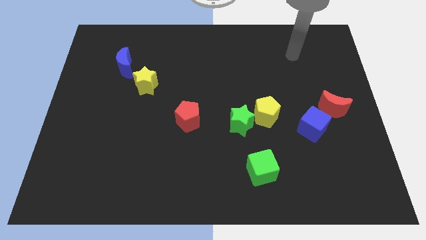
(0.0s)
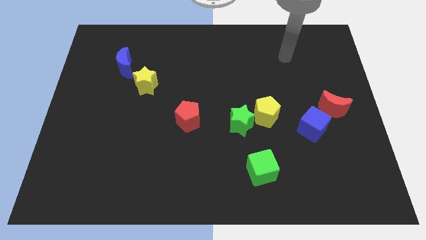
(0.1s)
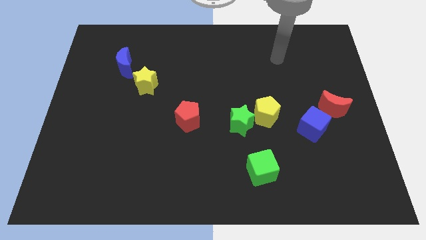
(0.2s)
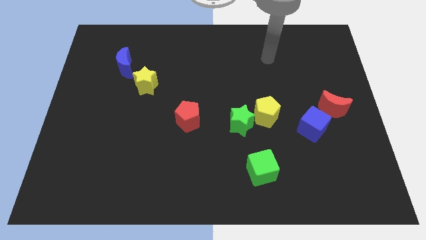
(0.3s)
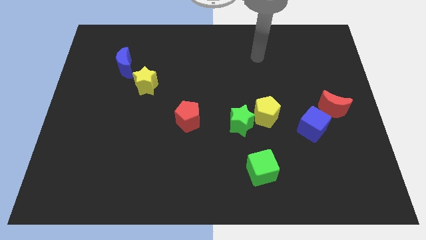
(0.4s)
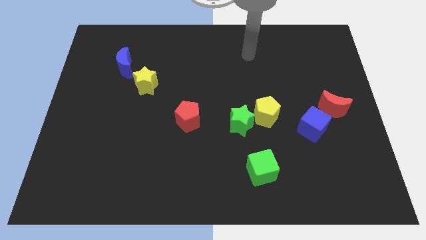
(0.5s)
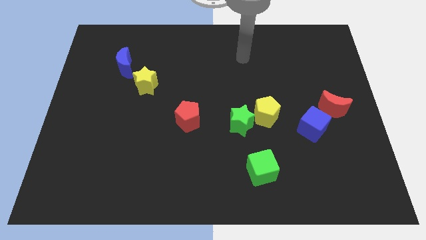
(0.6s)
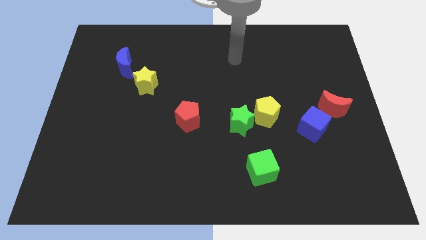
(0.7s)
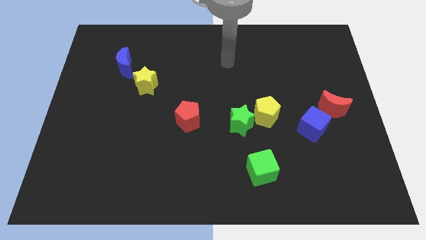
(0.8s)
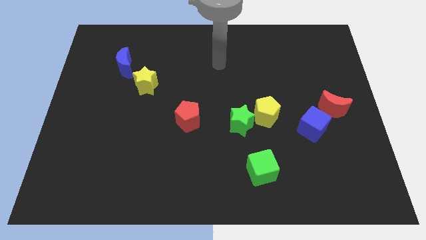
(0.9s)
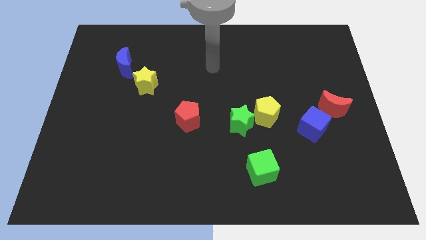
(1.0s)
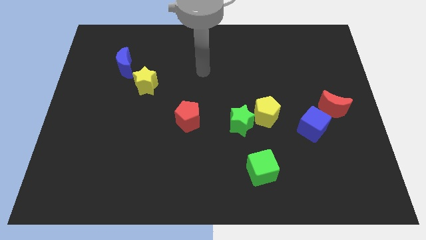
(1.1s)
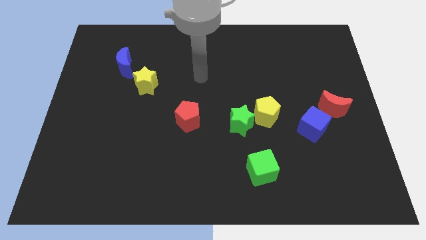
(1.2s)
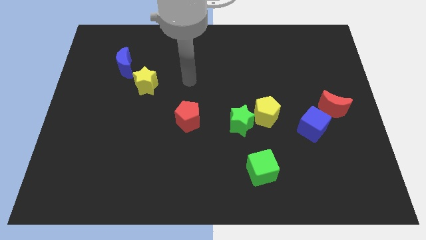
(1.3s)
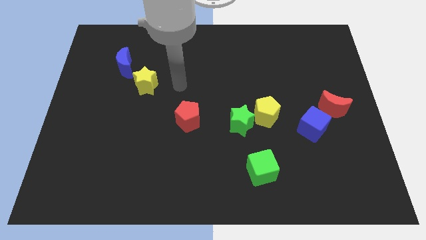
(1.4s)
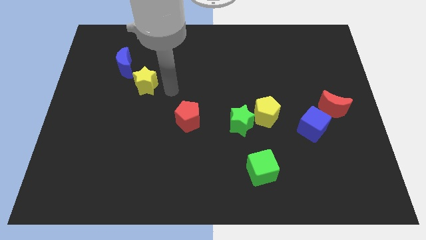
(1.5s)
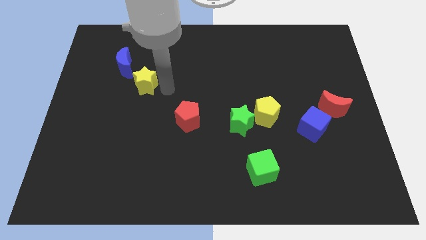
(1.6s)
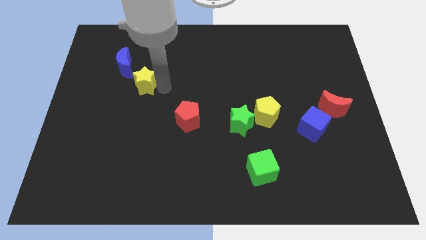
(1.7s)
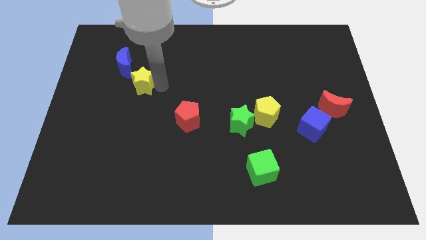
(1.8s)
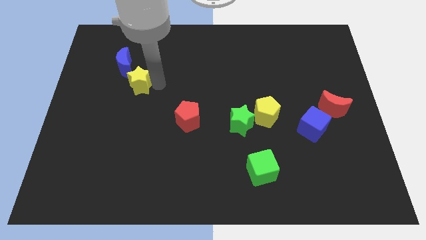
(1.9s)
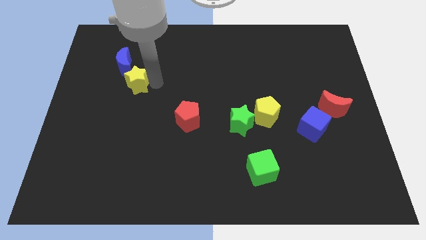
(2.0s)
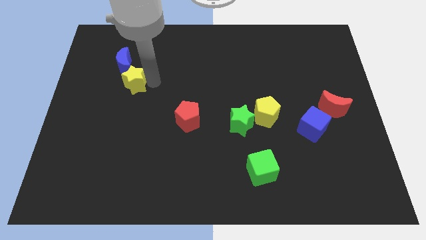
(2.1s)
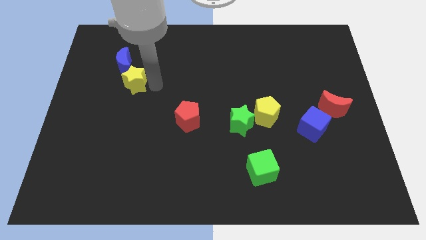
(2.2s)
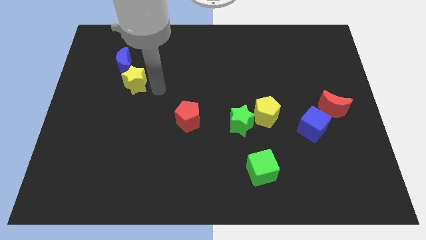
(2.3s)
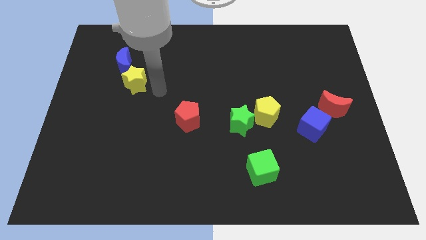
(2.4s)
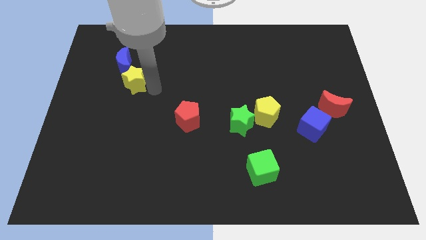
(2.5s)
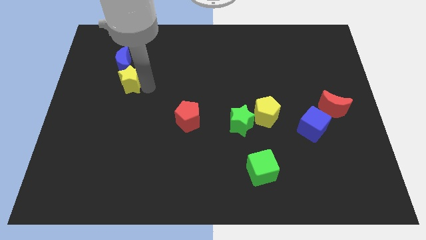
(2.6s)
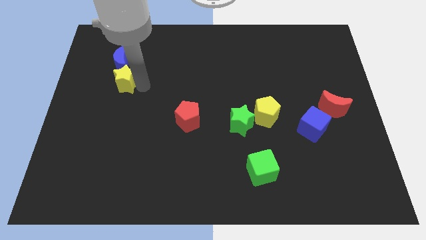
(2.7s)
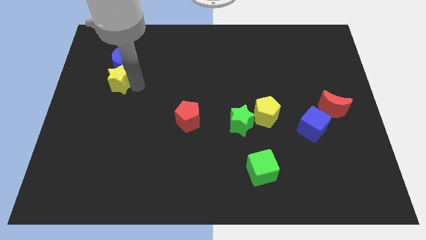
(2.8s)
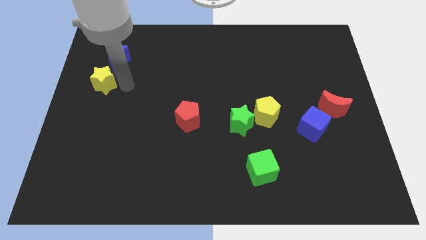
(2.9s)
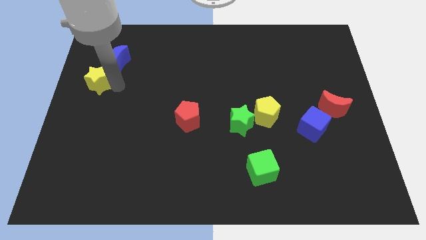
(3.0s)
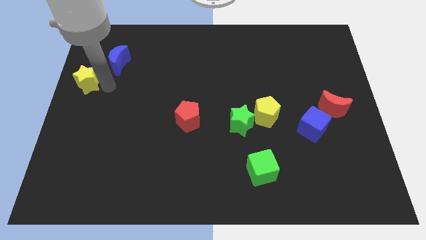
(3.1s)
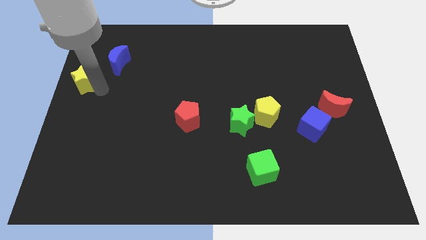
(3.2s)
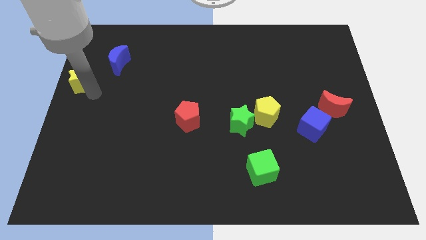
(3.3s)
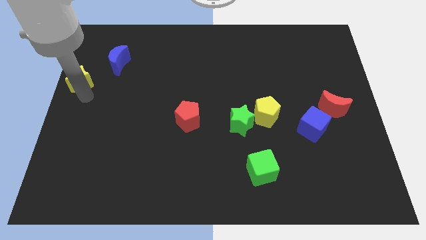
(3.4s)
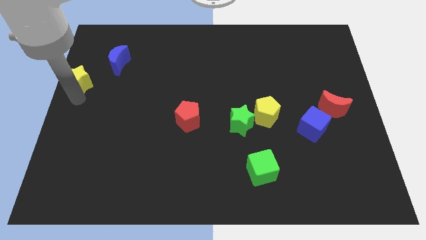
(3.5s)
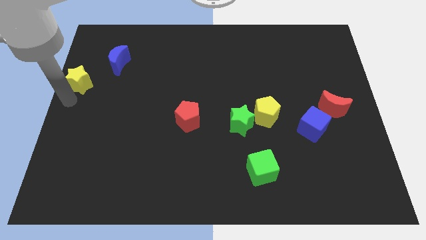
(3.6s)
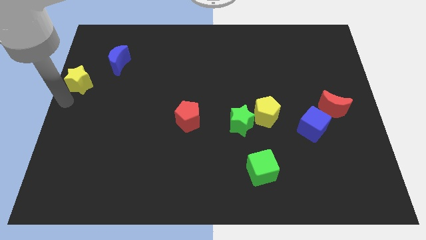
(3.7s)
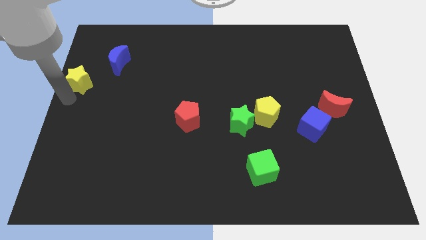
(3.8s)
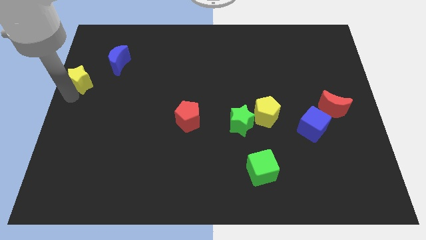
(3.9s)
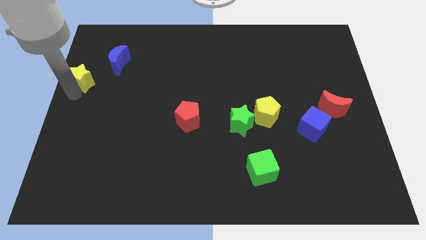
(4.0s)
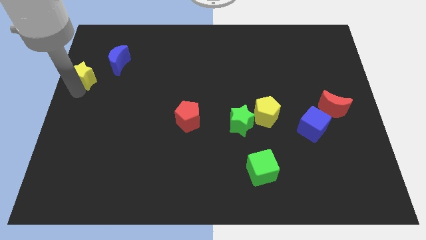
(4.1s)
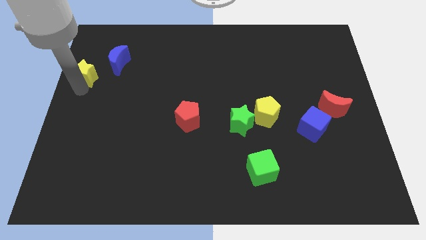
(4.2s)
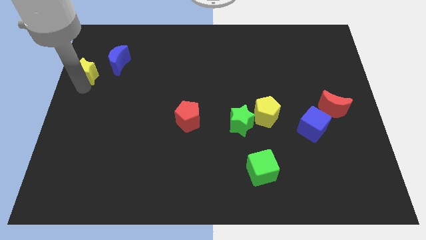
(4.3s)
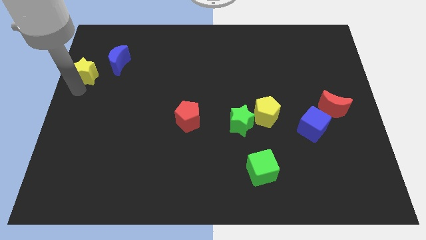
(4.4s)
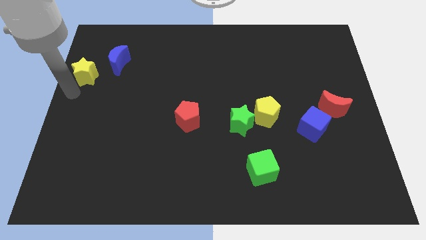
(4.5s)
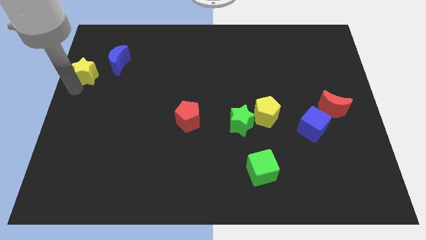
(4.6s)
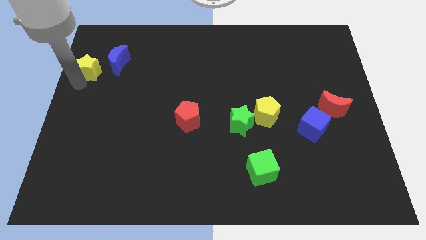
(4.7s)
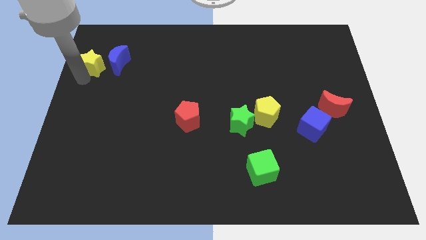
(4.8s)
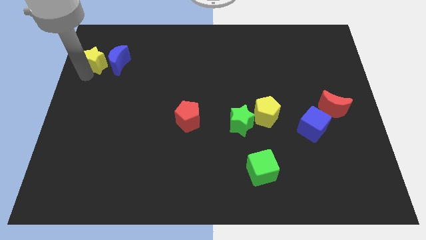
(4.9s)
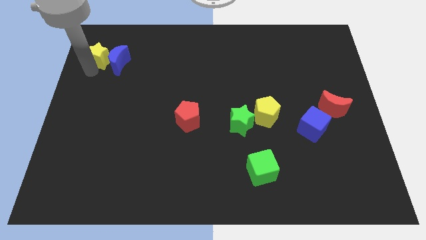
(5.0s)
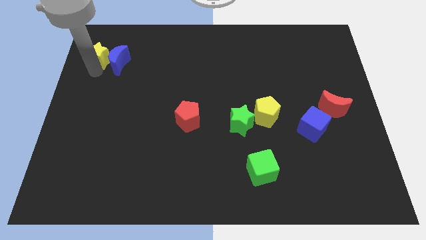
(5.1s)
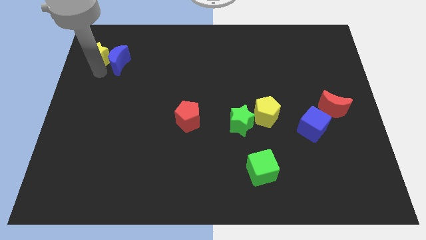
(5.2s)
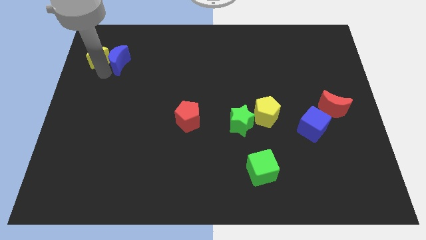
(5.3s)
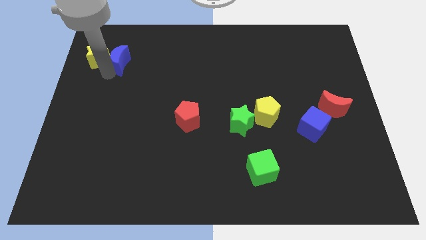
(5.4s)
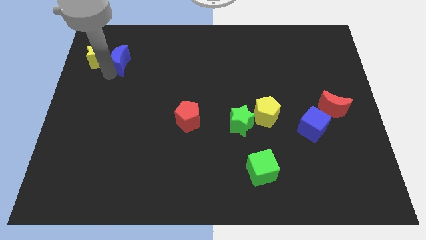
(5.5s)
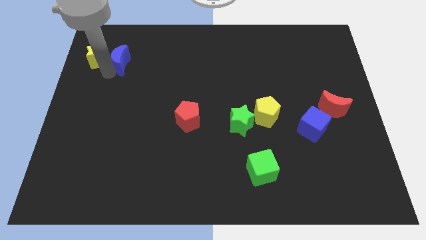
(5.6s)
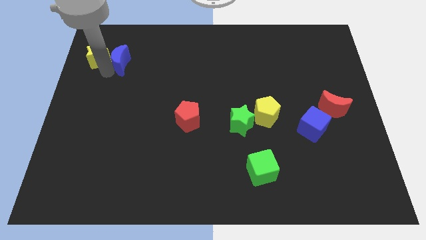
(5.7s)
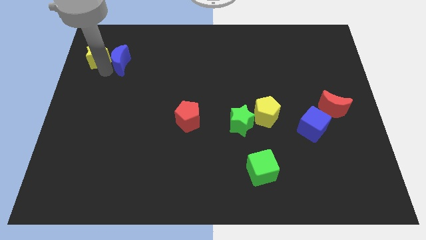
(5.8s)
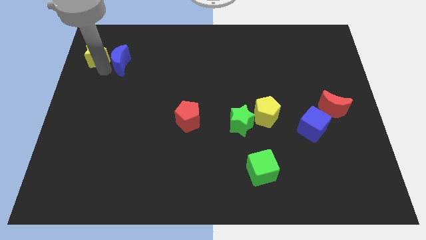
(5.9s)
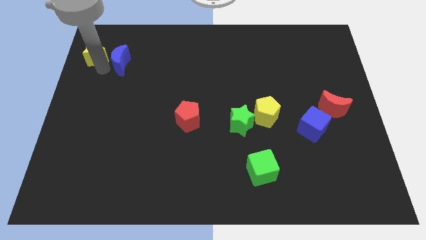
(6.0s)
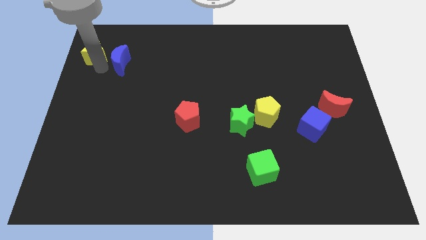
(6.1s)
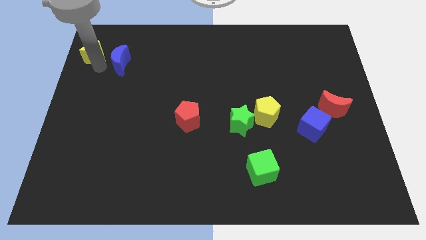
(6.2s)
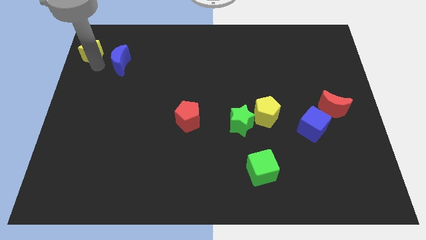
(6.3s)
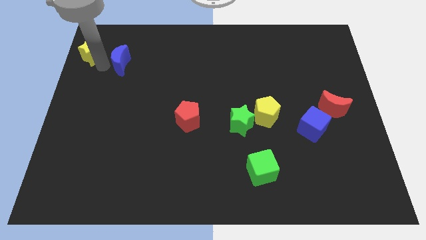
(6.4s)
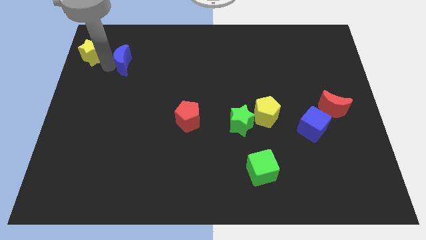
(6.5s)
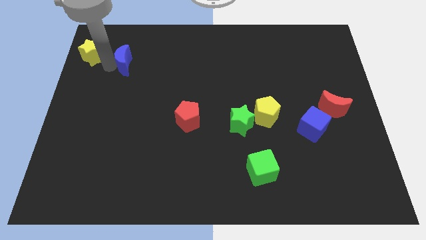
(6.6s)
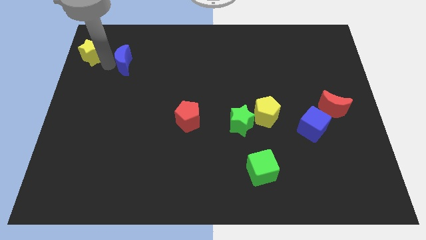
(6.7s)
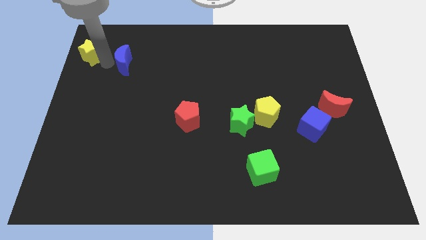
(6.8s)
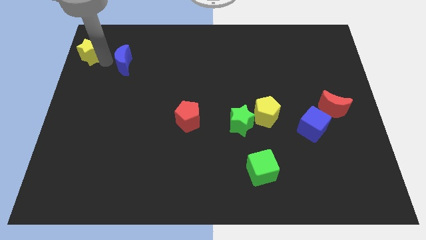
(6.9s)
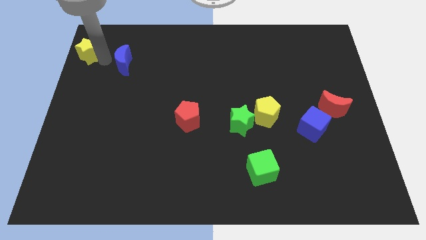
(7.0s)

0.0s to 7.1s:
slide the yellow star to the top left of the board

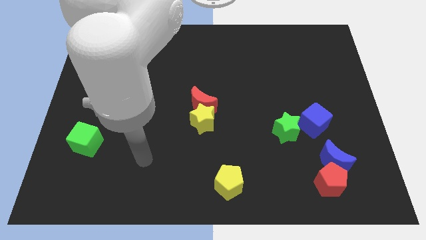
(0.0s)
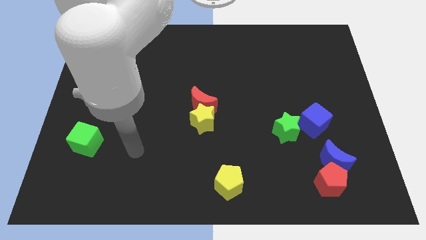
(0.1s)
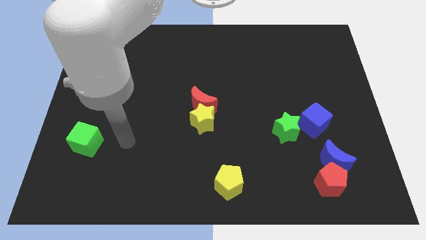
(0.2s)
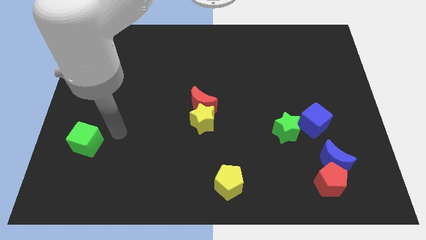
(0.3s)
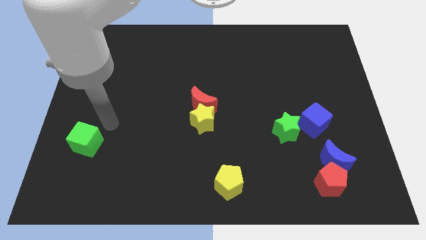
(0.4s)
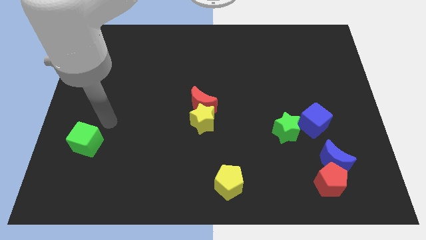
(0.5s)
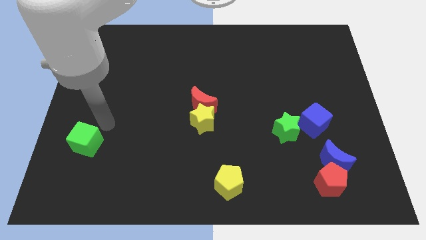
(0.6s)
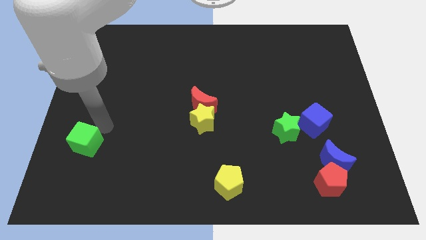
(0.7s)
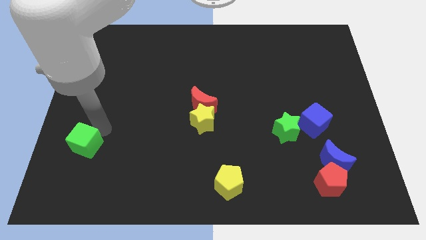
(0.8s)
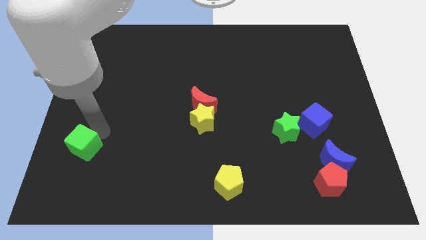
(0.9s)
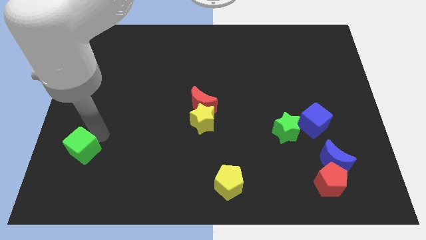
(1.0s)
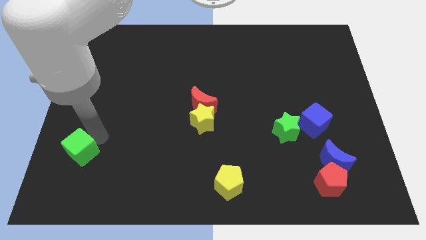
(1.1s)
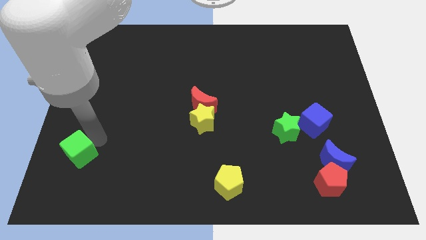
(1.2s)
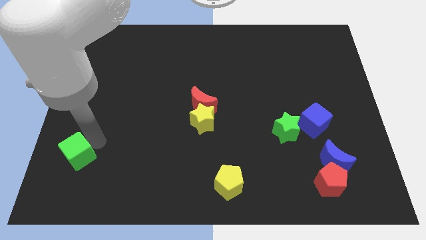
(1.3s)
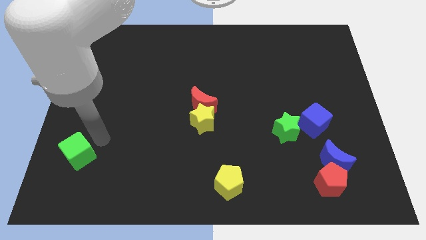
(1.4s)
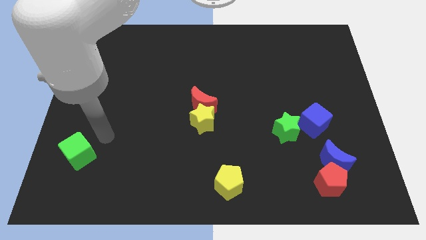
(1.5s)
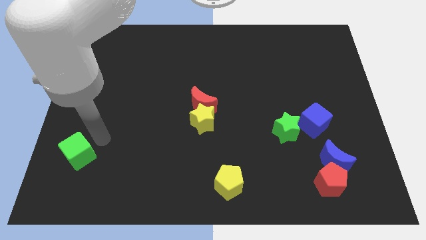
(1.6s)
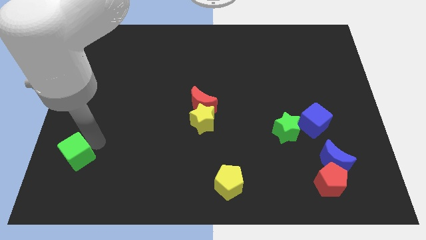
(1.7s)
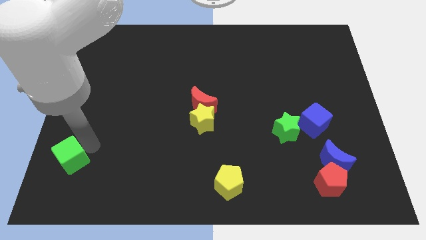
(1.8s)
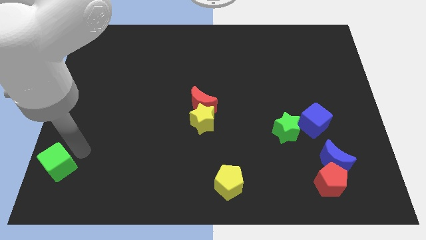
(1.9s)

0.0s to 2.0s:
push the green cube to the bottom left corner
